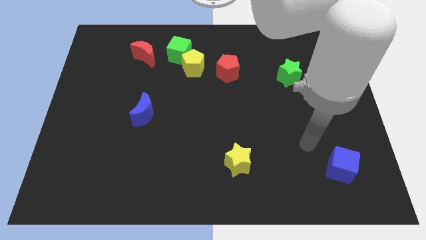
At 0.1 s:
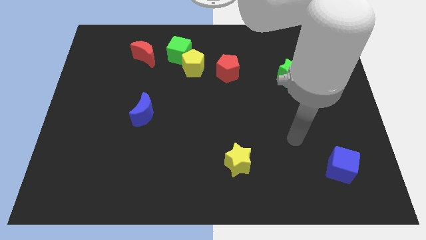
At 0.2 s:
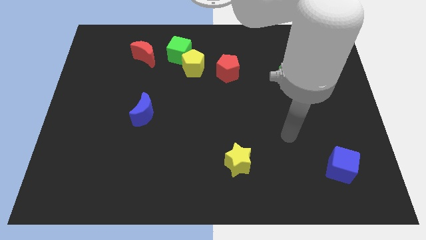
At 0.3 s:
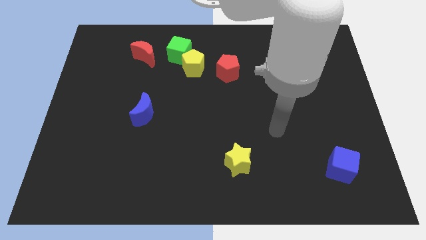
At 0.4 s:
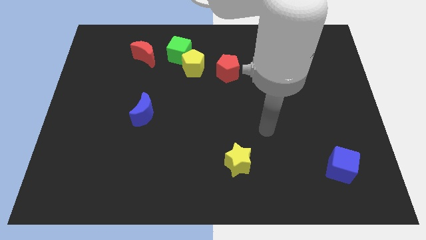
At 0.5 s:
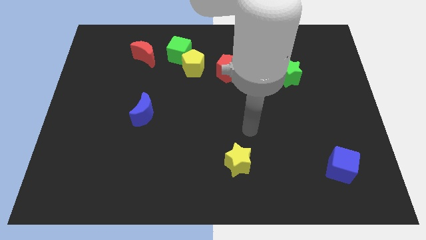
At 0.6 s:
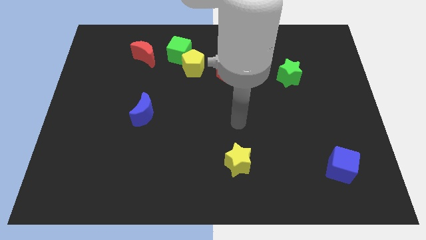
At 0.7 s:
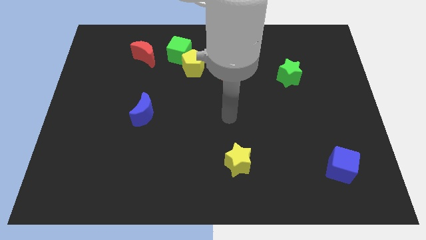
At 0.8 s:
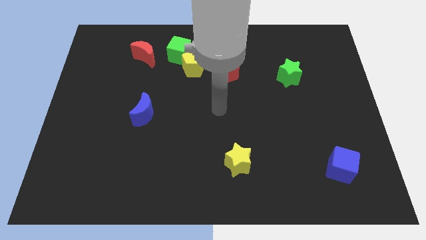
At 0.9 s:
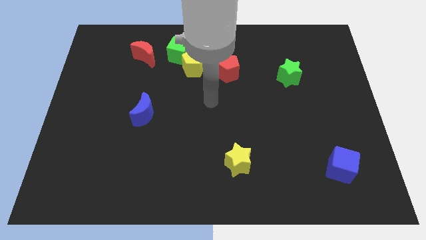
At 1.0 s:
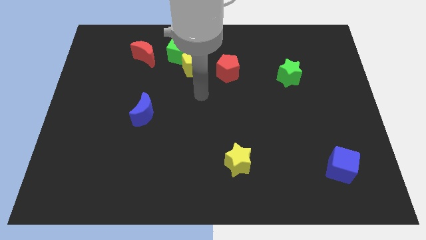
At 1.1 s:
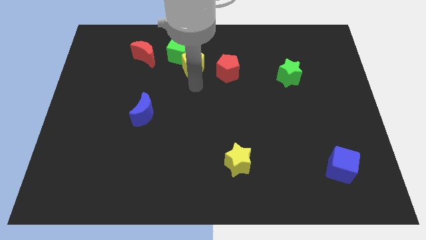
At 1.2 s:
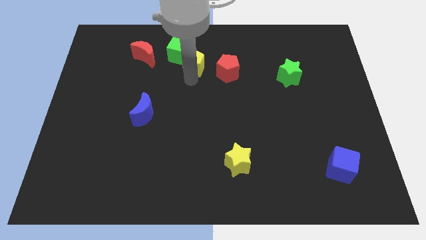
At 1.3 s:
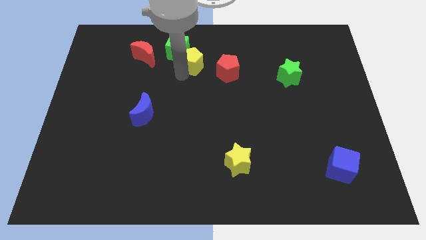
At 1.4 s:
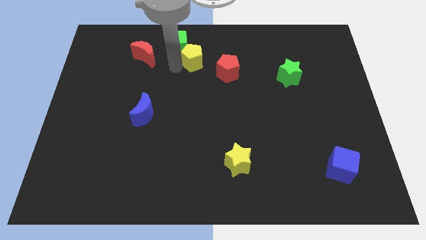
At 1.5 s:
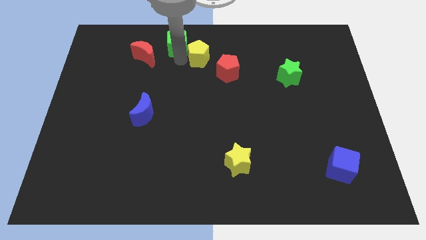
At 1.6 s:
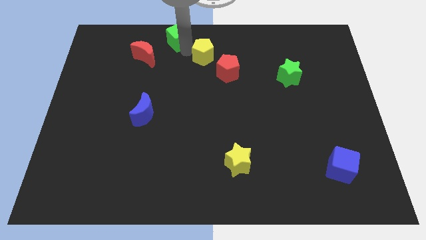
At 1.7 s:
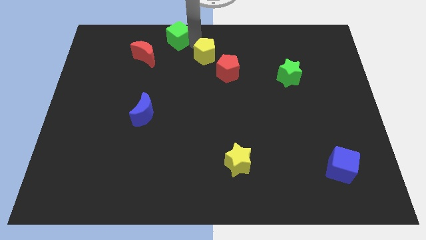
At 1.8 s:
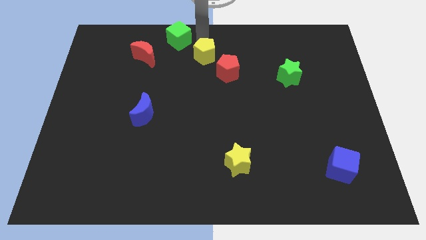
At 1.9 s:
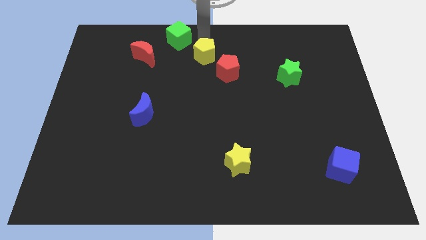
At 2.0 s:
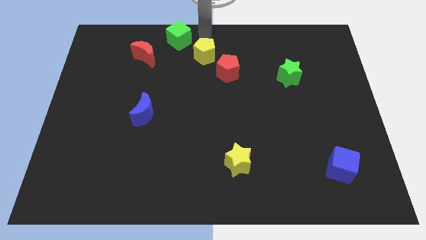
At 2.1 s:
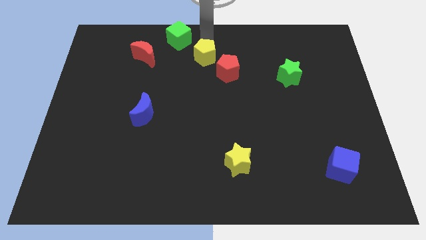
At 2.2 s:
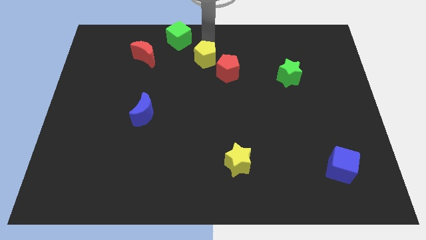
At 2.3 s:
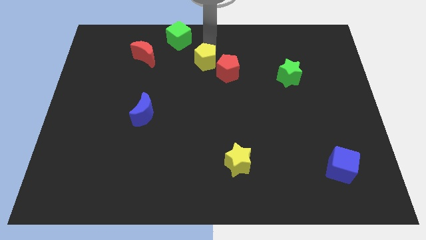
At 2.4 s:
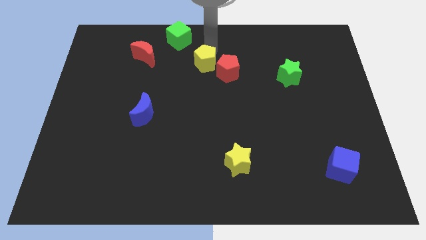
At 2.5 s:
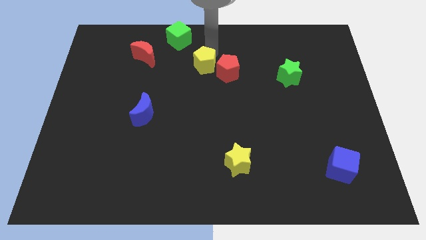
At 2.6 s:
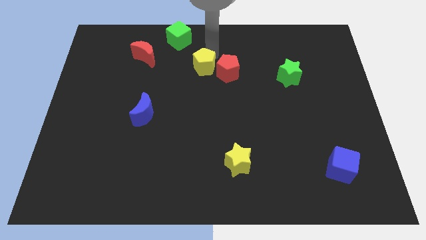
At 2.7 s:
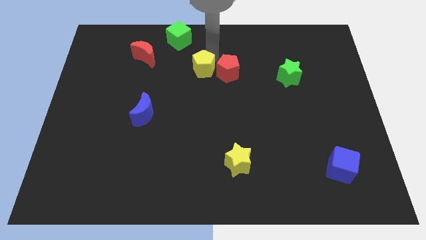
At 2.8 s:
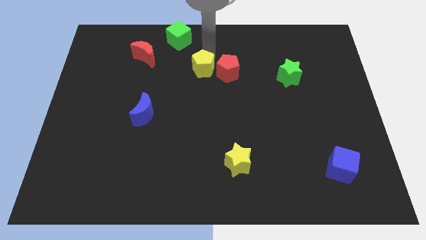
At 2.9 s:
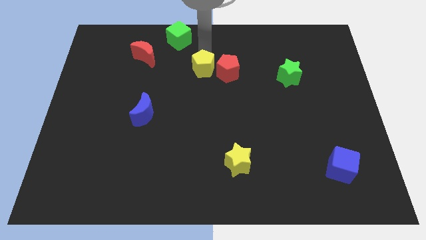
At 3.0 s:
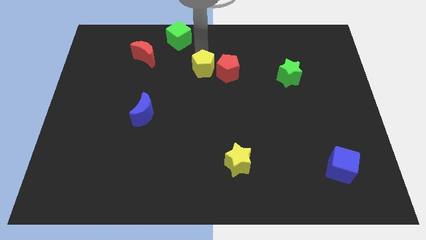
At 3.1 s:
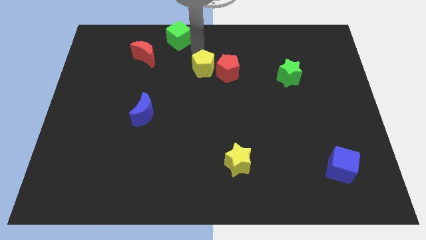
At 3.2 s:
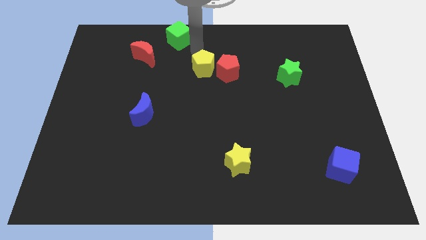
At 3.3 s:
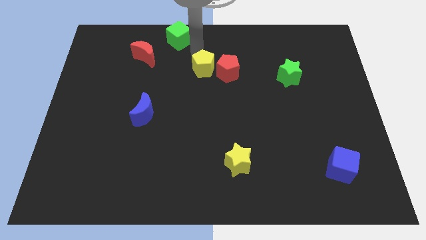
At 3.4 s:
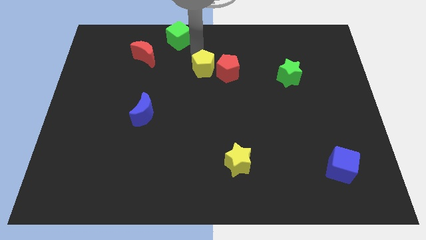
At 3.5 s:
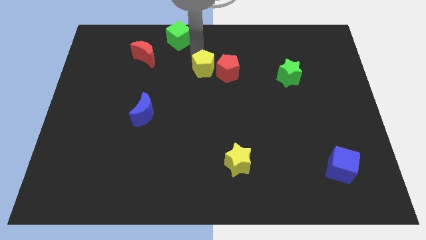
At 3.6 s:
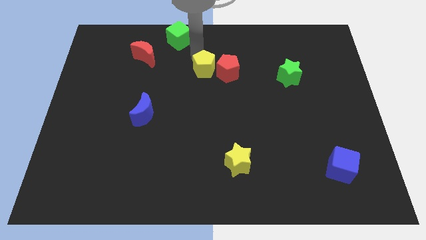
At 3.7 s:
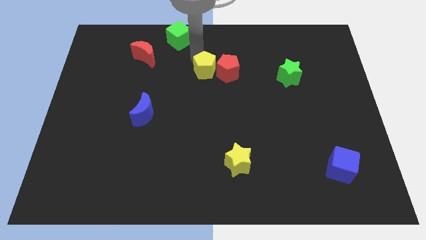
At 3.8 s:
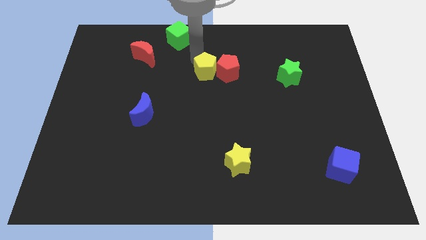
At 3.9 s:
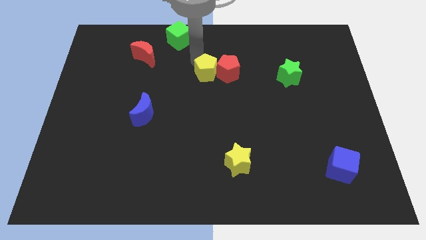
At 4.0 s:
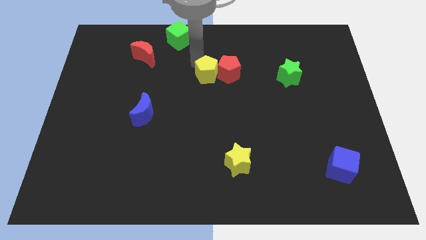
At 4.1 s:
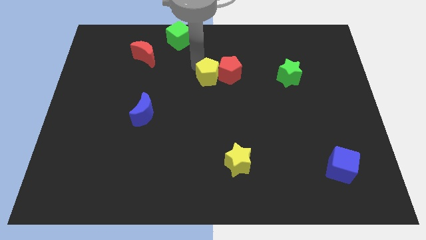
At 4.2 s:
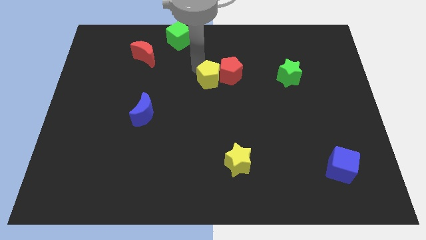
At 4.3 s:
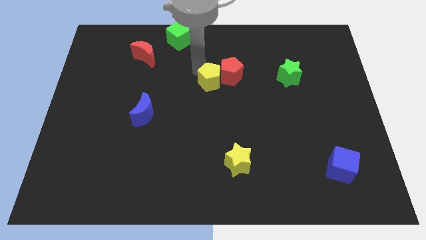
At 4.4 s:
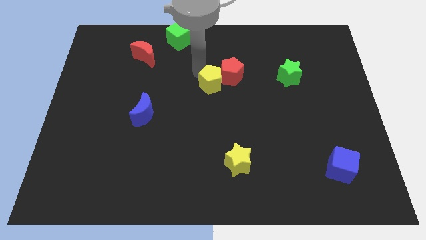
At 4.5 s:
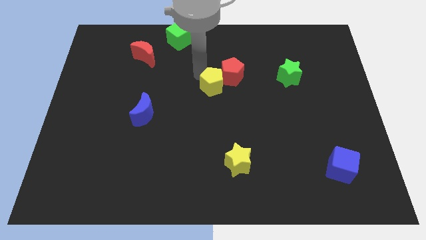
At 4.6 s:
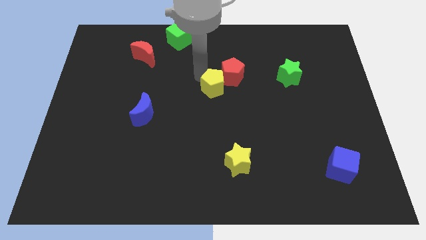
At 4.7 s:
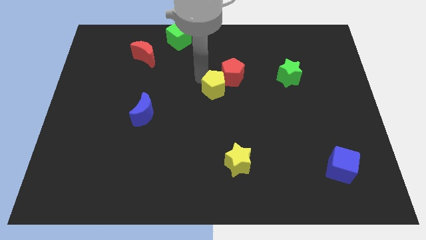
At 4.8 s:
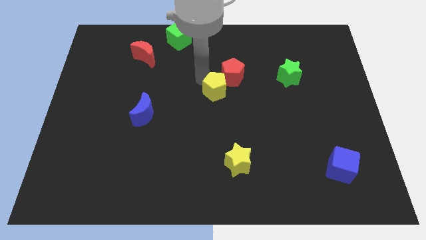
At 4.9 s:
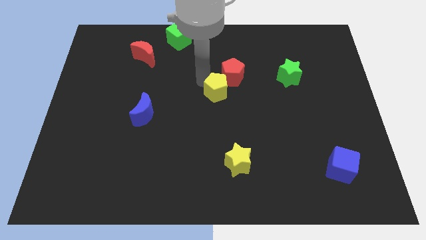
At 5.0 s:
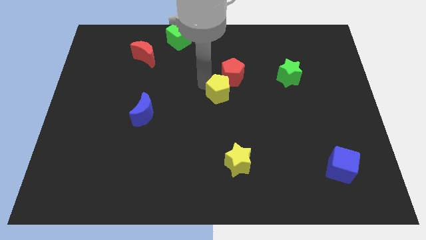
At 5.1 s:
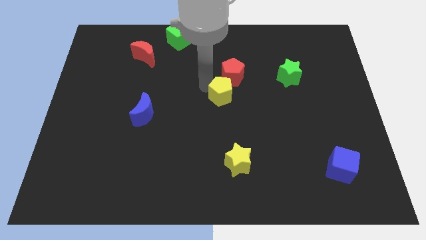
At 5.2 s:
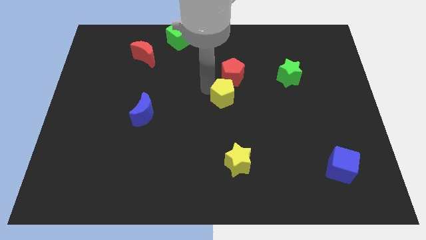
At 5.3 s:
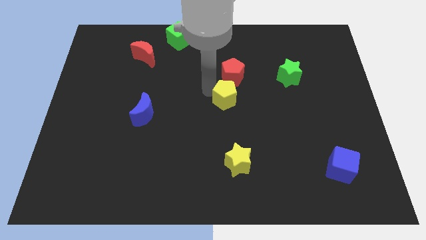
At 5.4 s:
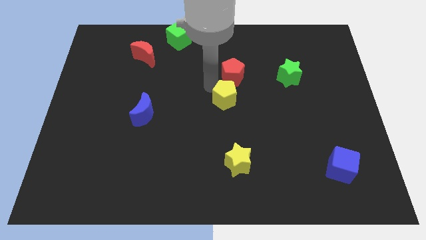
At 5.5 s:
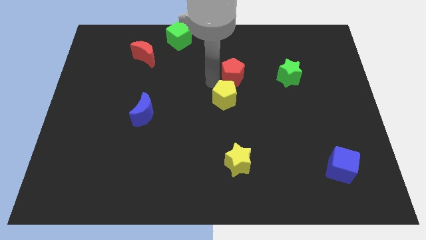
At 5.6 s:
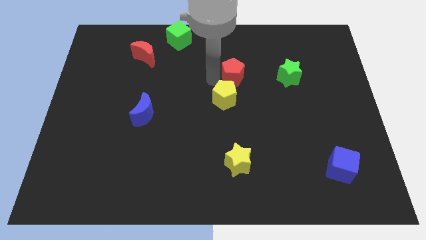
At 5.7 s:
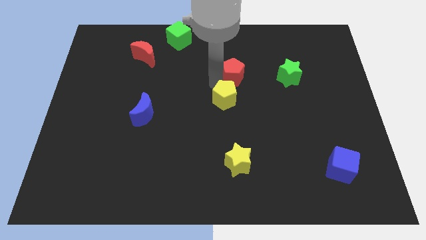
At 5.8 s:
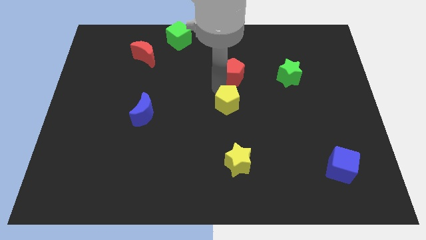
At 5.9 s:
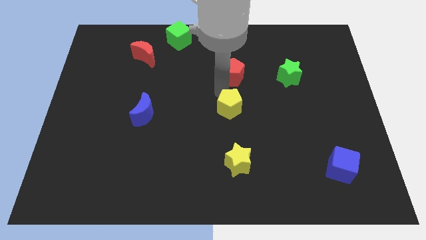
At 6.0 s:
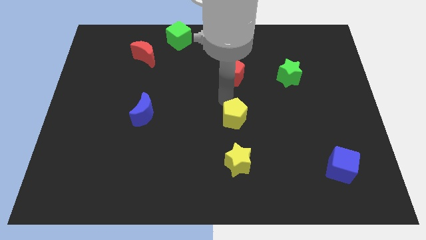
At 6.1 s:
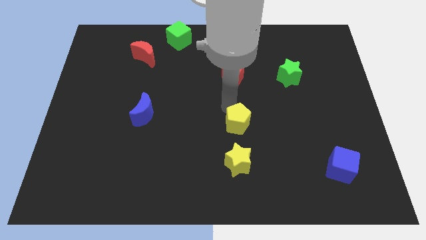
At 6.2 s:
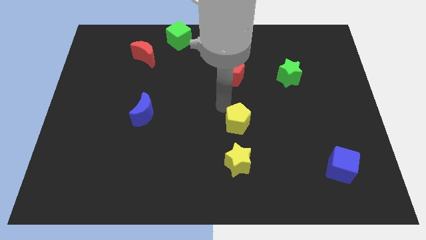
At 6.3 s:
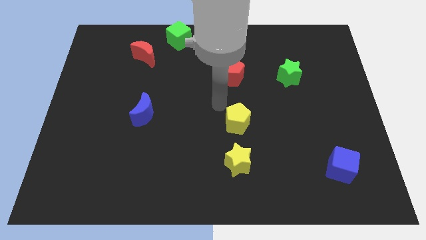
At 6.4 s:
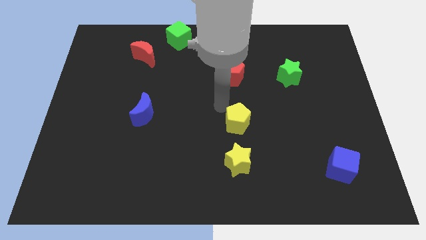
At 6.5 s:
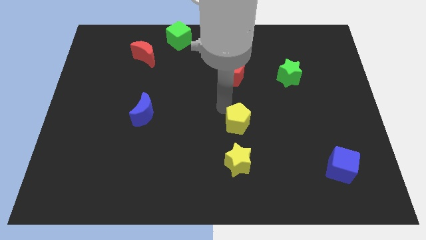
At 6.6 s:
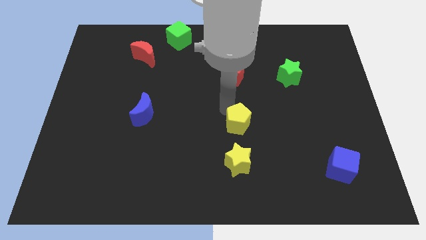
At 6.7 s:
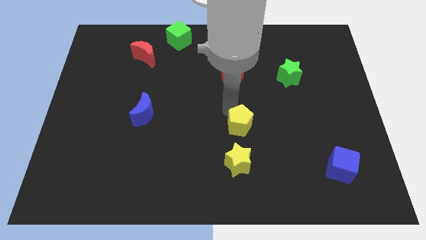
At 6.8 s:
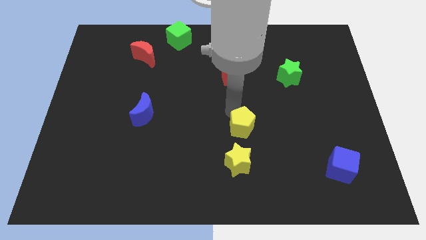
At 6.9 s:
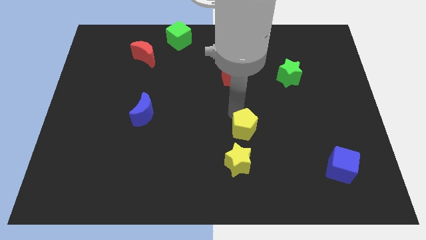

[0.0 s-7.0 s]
put the yellow pentagon to the top right of the yellow star
